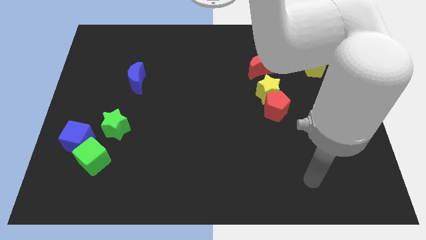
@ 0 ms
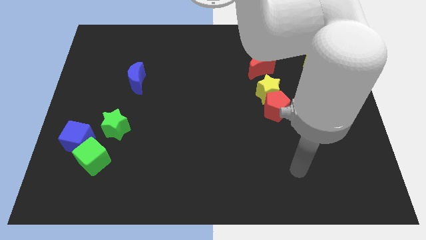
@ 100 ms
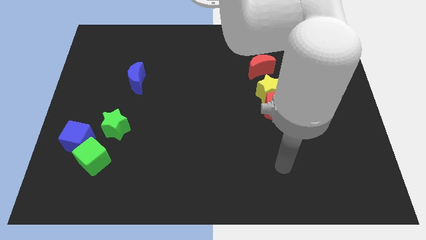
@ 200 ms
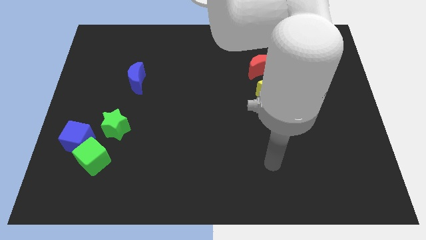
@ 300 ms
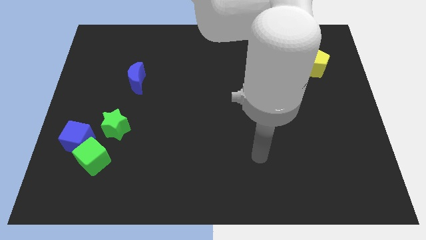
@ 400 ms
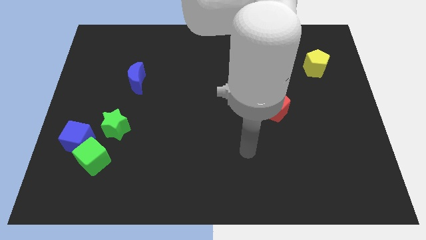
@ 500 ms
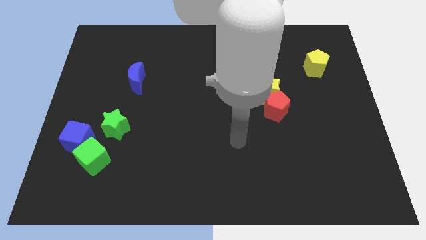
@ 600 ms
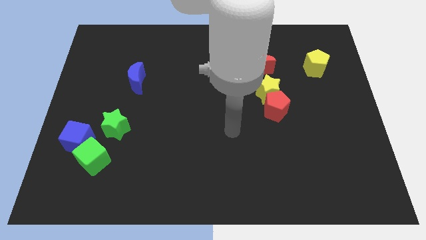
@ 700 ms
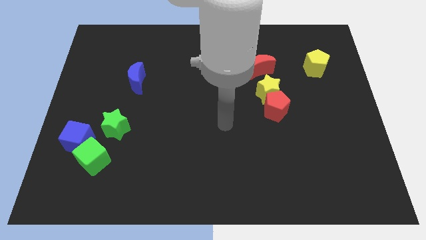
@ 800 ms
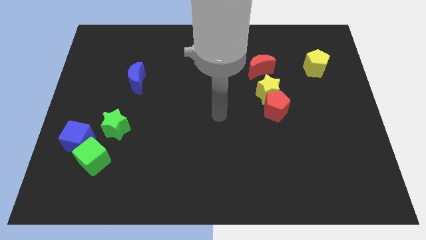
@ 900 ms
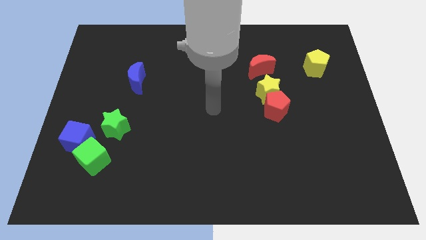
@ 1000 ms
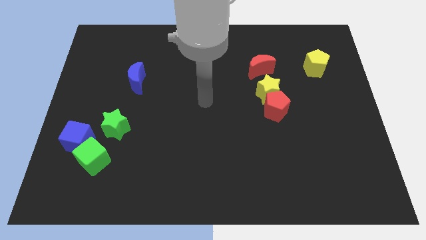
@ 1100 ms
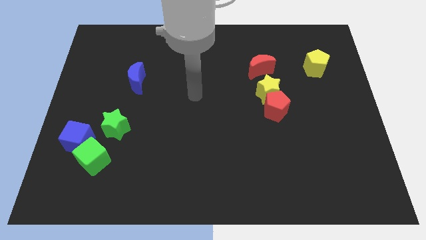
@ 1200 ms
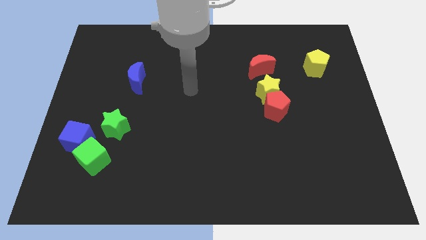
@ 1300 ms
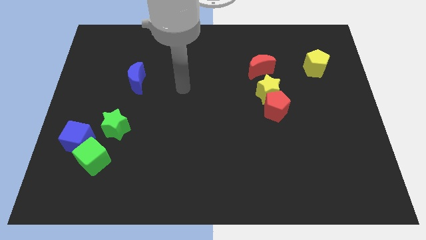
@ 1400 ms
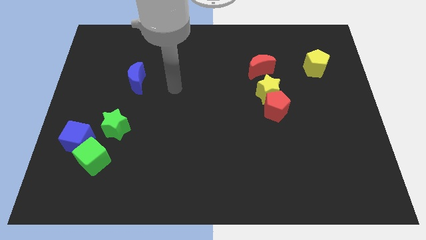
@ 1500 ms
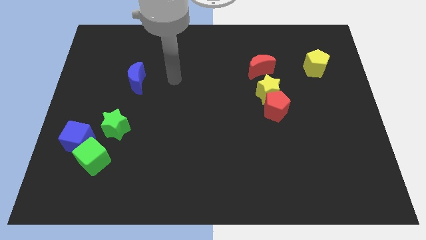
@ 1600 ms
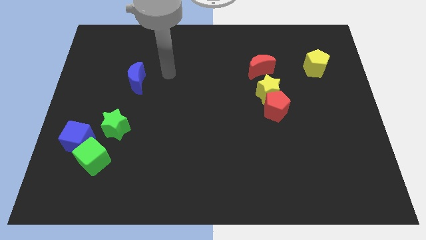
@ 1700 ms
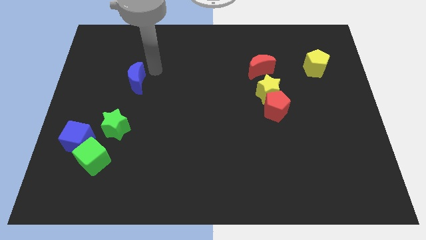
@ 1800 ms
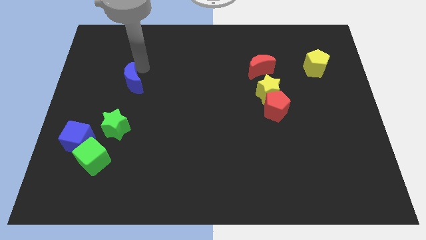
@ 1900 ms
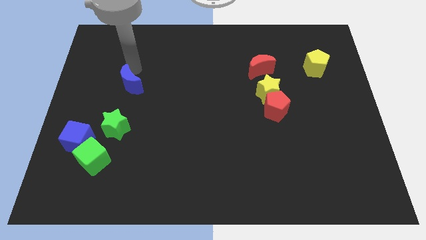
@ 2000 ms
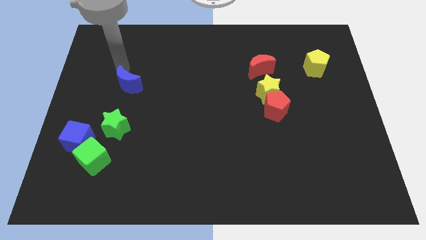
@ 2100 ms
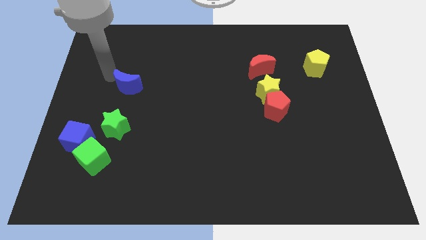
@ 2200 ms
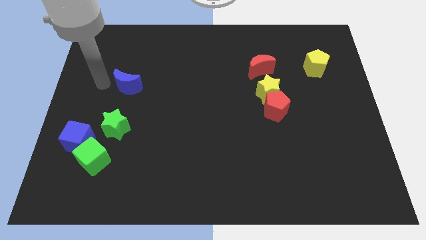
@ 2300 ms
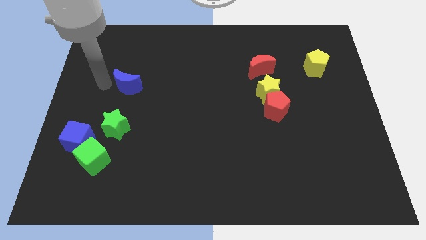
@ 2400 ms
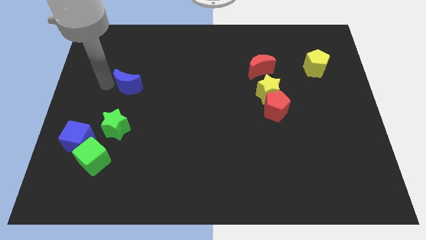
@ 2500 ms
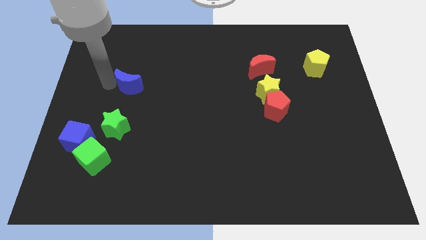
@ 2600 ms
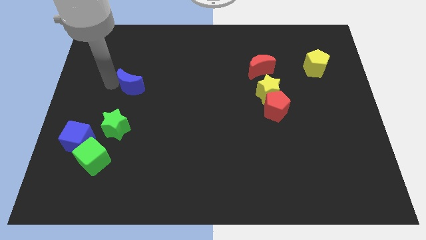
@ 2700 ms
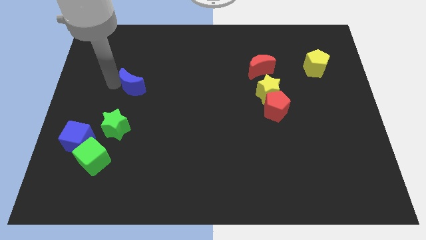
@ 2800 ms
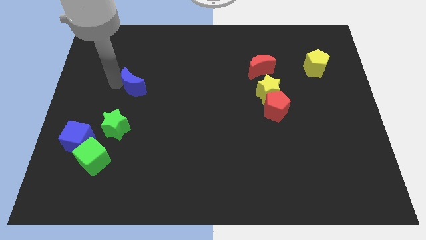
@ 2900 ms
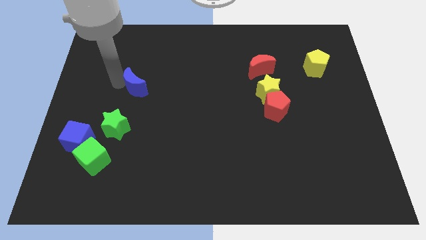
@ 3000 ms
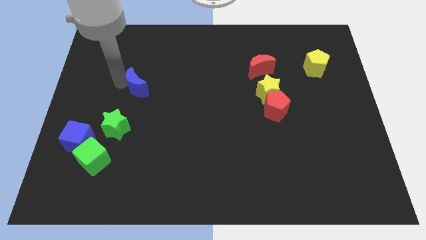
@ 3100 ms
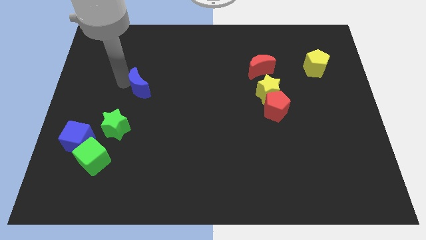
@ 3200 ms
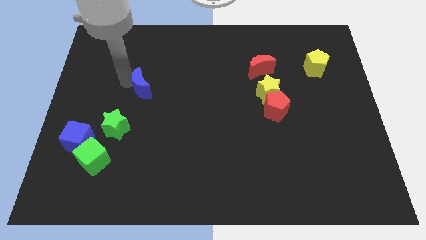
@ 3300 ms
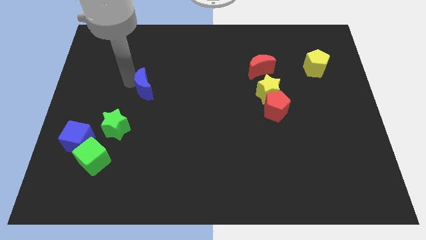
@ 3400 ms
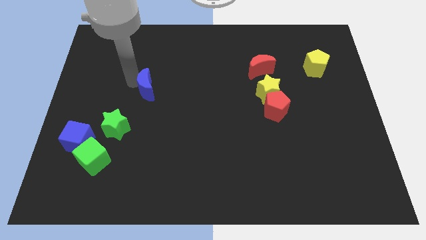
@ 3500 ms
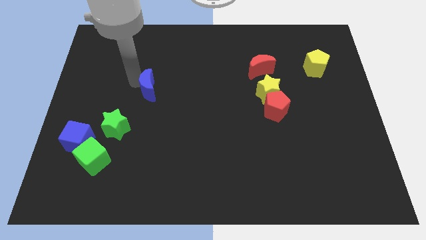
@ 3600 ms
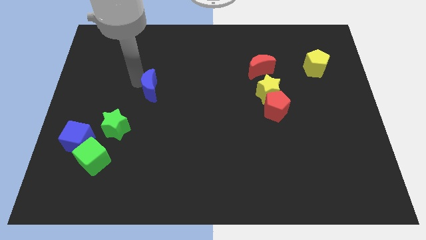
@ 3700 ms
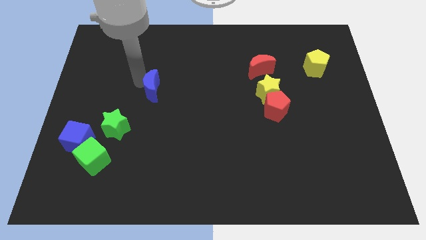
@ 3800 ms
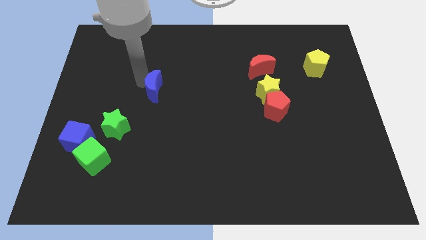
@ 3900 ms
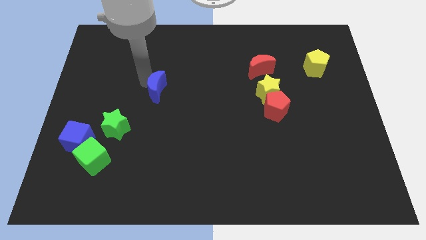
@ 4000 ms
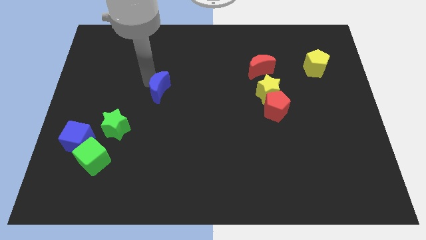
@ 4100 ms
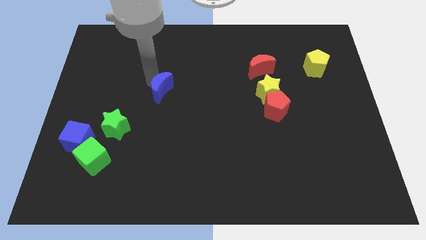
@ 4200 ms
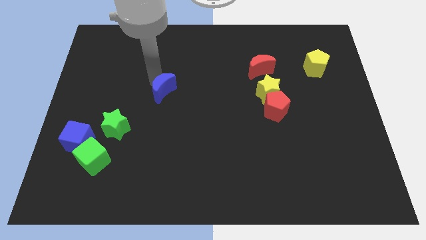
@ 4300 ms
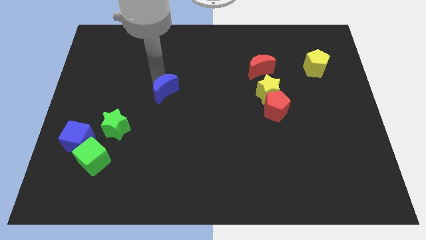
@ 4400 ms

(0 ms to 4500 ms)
slightly slide the blue moon downwards and then to the right

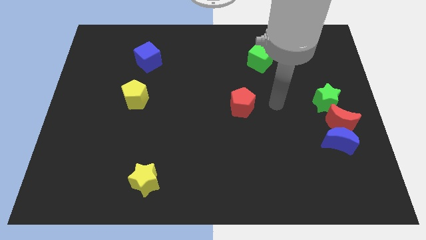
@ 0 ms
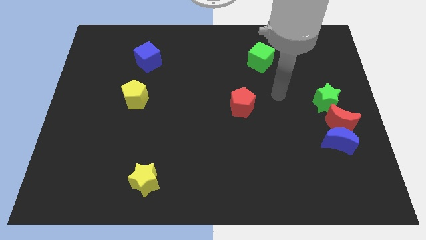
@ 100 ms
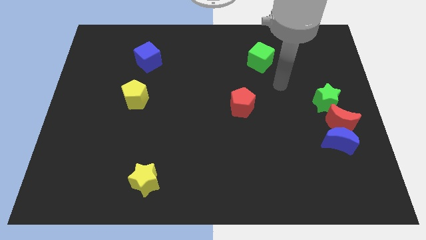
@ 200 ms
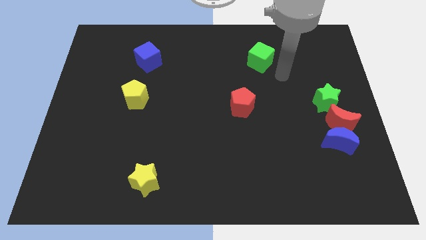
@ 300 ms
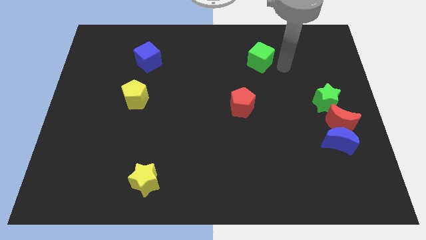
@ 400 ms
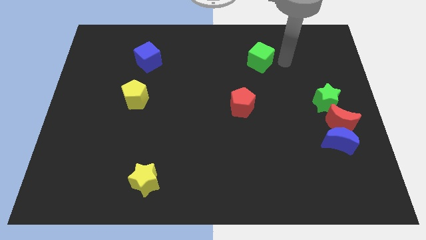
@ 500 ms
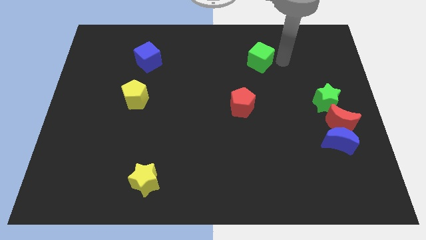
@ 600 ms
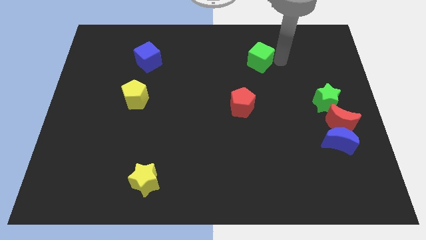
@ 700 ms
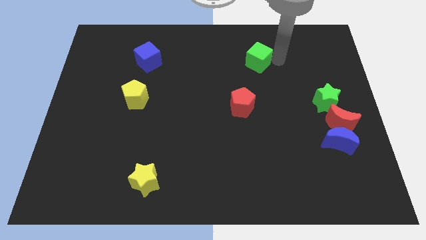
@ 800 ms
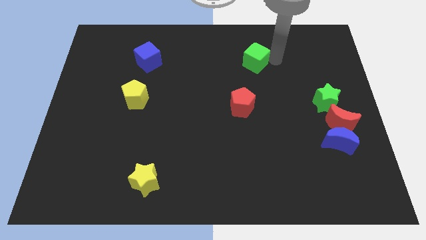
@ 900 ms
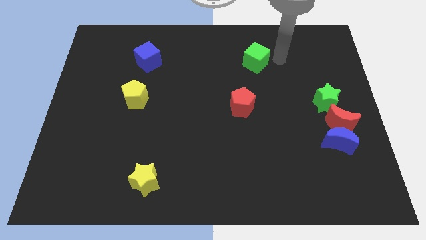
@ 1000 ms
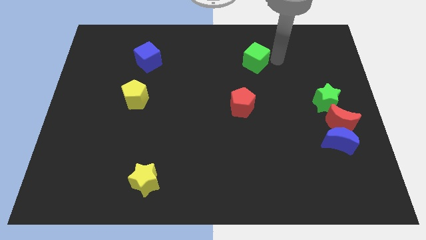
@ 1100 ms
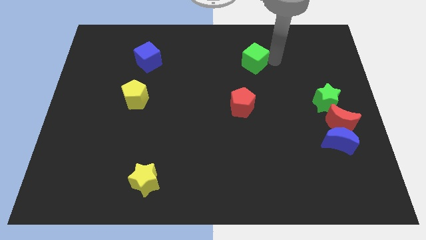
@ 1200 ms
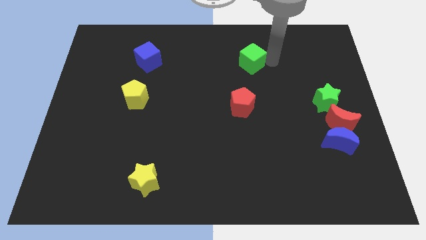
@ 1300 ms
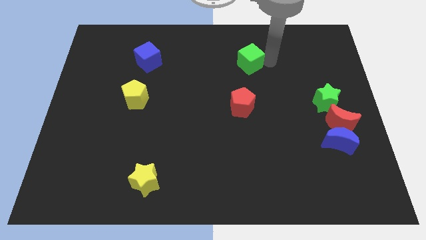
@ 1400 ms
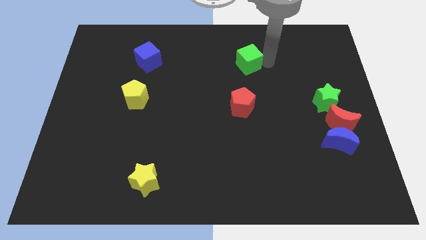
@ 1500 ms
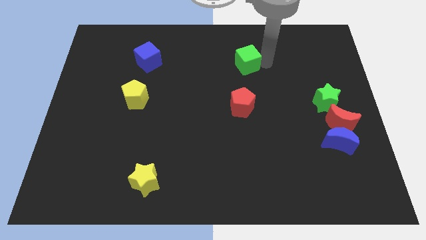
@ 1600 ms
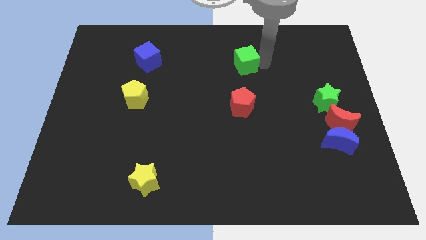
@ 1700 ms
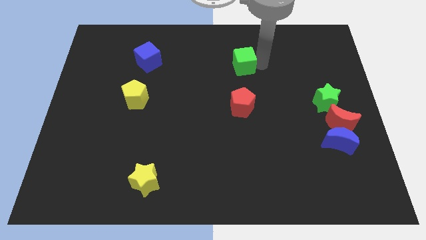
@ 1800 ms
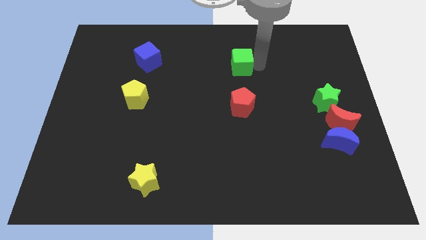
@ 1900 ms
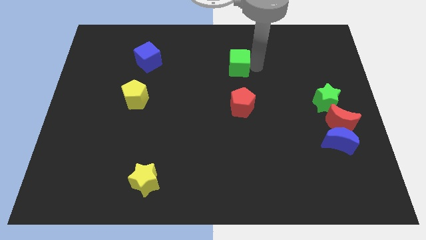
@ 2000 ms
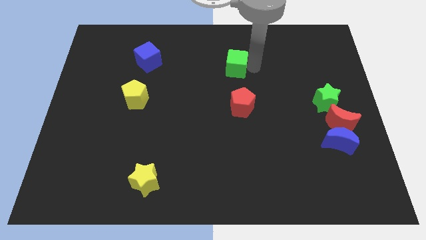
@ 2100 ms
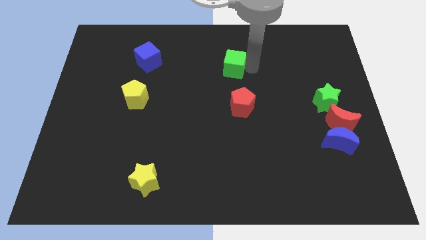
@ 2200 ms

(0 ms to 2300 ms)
slide the green cube to the left a little bit

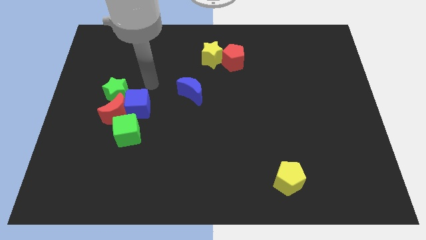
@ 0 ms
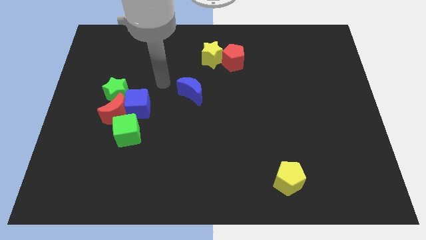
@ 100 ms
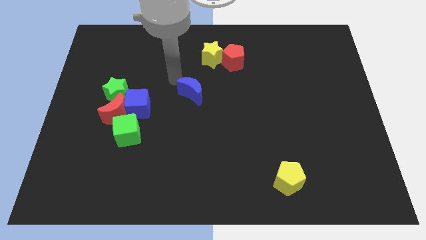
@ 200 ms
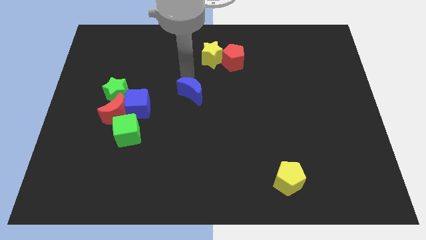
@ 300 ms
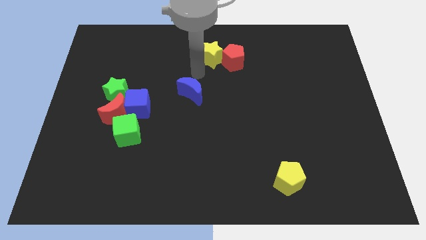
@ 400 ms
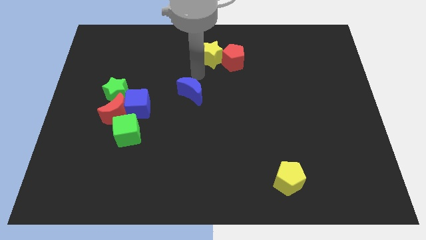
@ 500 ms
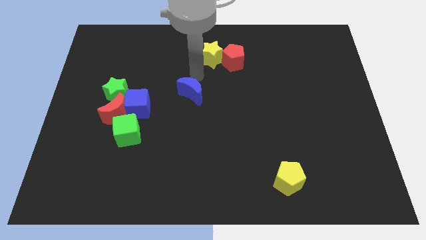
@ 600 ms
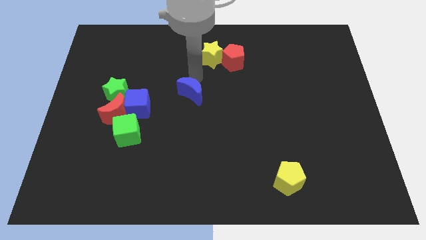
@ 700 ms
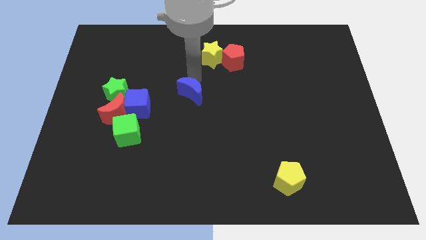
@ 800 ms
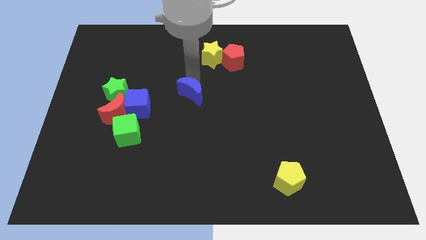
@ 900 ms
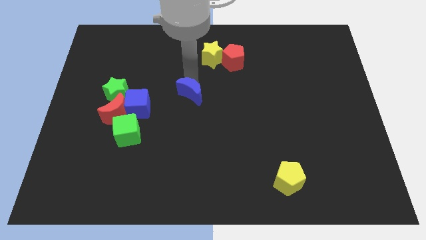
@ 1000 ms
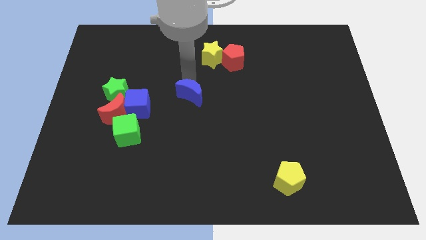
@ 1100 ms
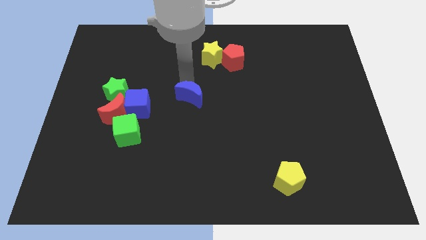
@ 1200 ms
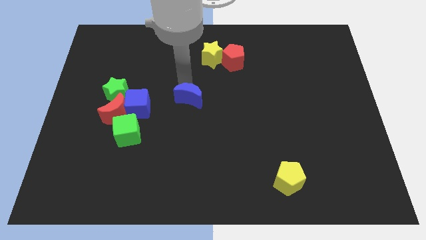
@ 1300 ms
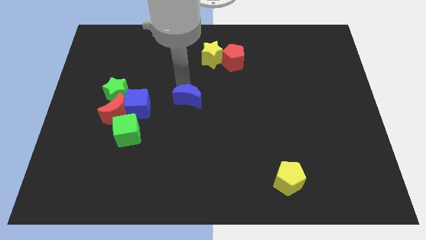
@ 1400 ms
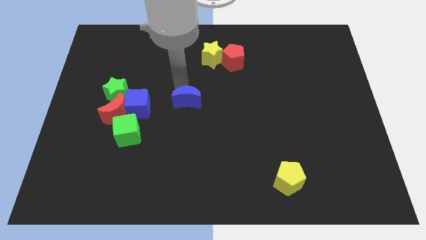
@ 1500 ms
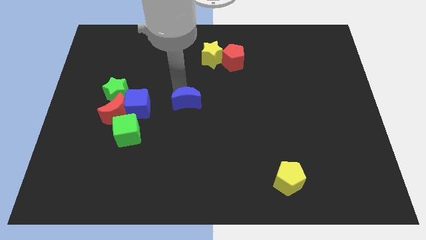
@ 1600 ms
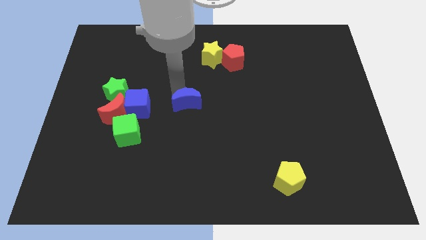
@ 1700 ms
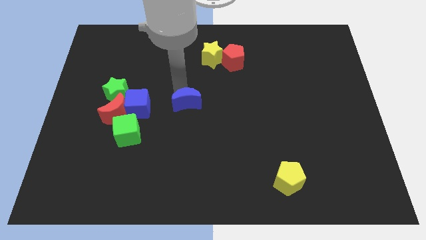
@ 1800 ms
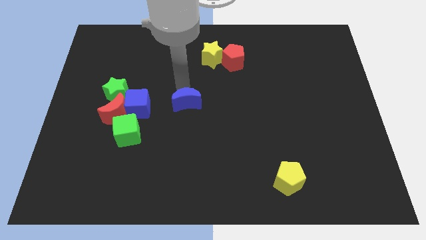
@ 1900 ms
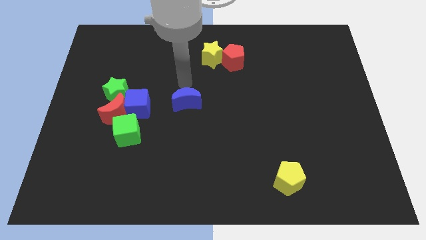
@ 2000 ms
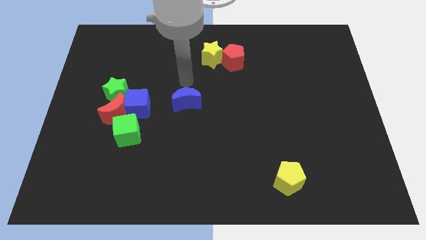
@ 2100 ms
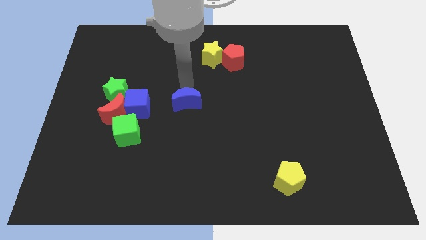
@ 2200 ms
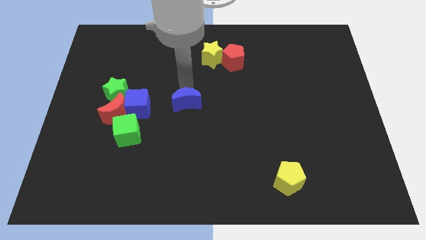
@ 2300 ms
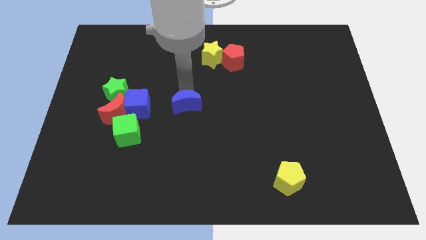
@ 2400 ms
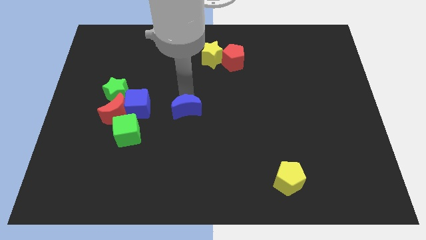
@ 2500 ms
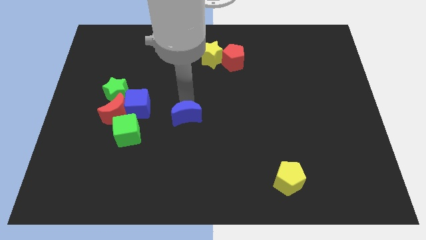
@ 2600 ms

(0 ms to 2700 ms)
push the blue moon slightly down
